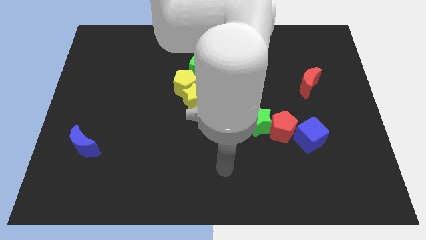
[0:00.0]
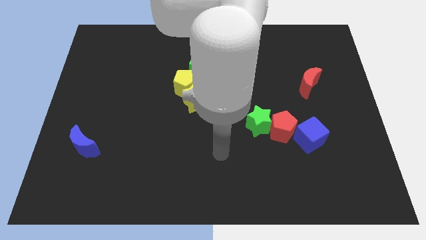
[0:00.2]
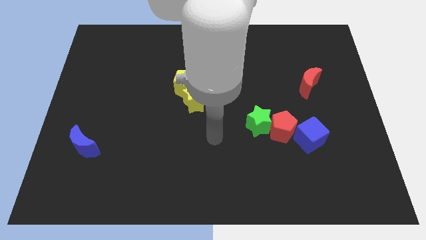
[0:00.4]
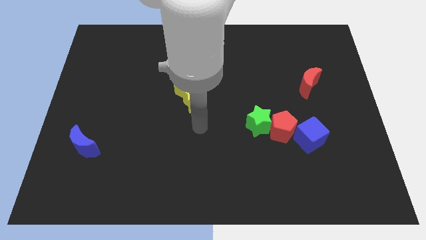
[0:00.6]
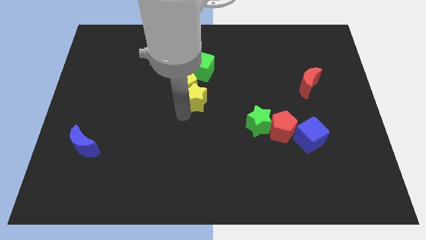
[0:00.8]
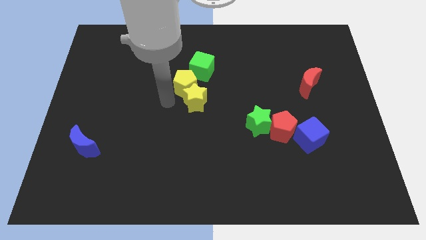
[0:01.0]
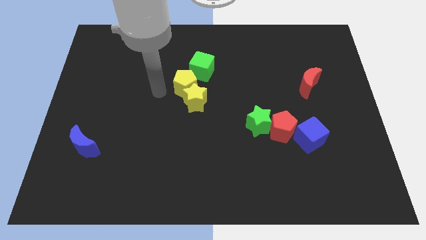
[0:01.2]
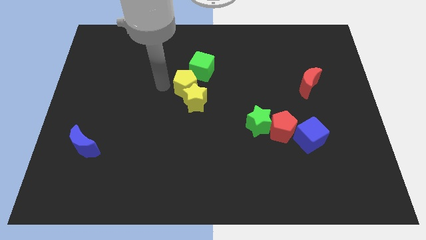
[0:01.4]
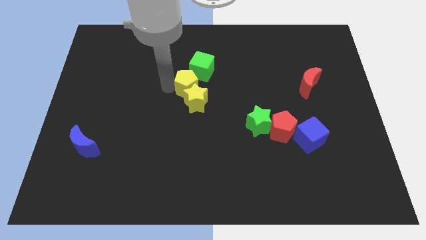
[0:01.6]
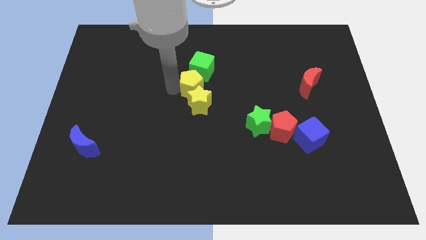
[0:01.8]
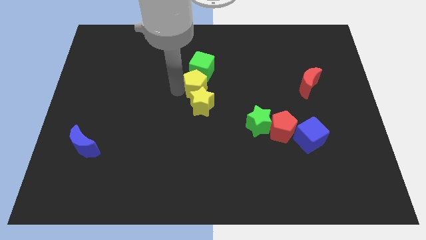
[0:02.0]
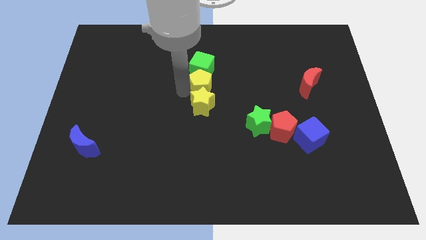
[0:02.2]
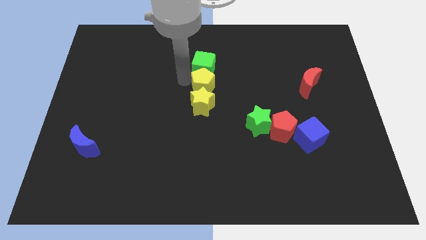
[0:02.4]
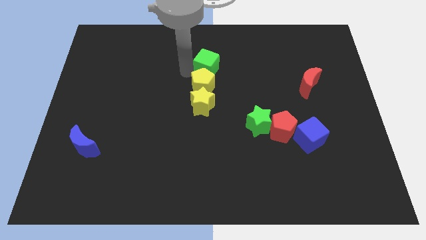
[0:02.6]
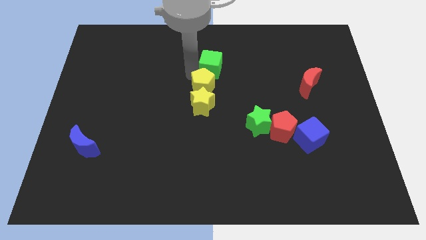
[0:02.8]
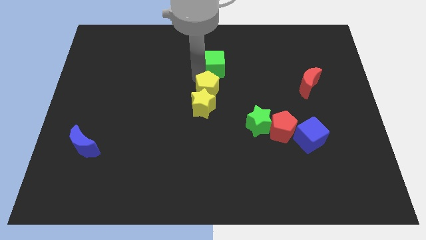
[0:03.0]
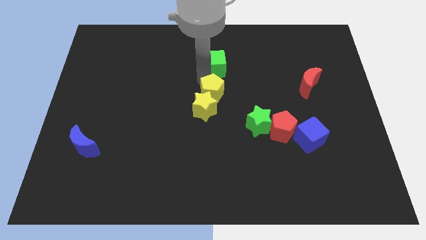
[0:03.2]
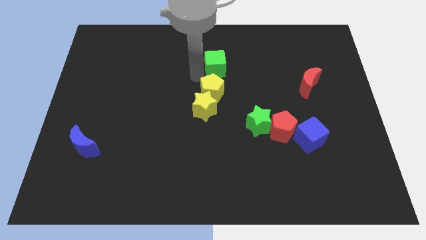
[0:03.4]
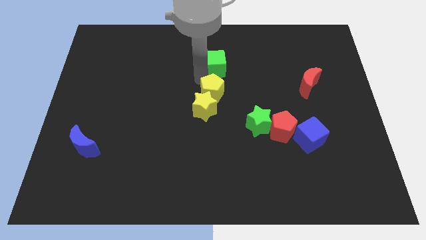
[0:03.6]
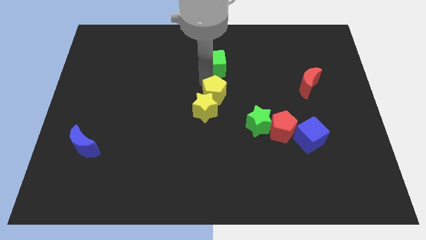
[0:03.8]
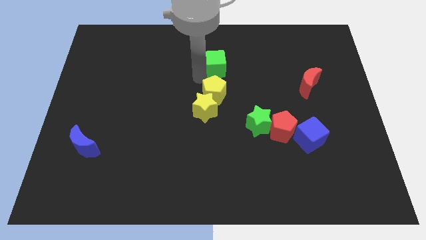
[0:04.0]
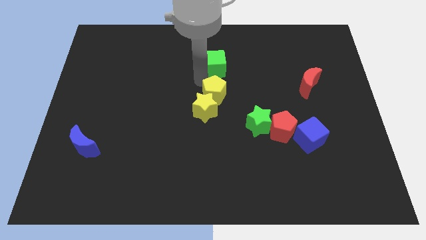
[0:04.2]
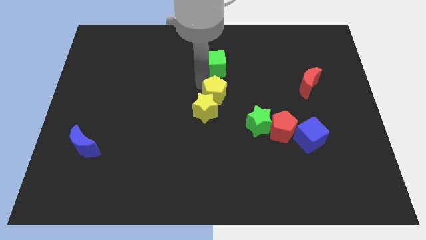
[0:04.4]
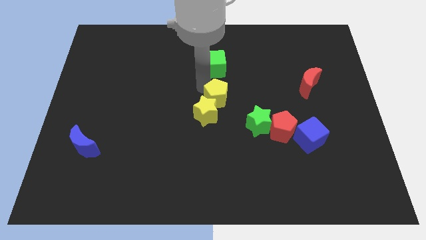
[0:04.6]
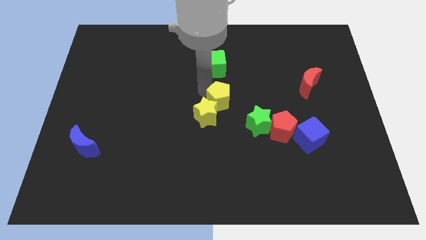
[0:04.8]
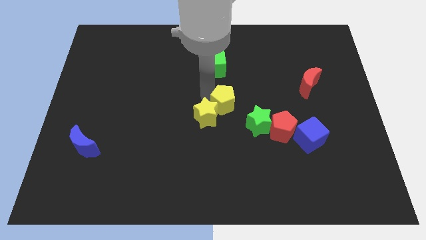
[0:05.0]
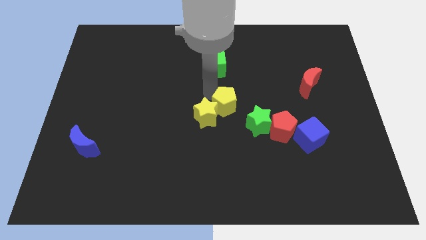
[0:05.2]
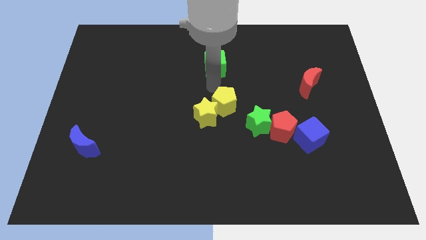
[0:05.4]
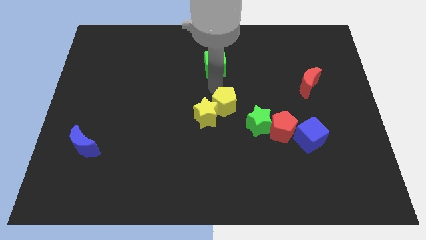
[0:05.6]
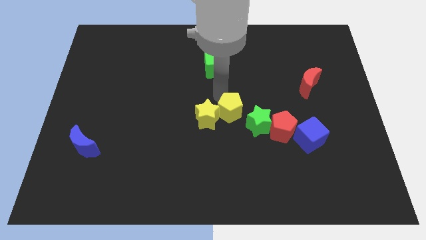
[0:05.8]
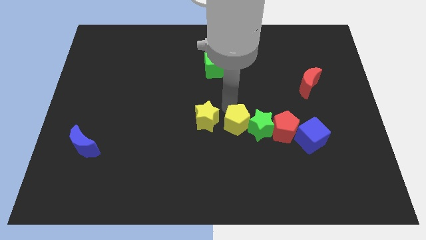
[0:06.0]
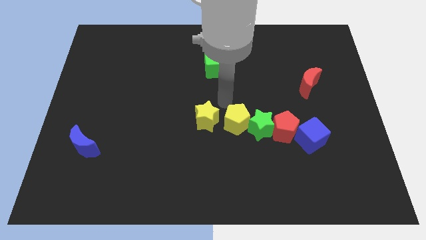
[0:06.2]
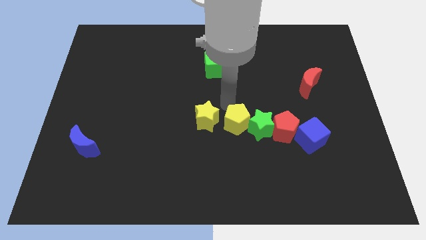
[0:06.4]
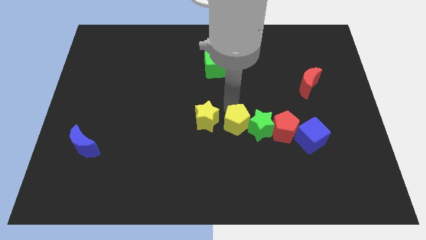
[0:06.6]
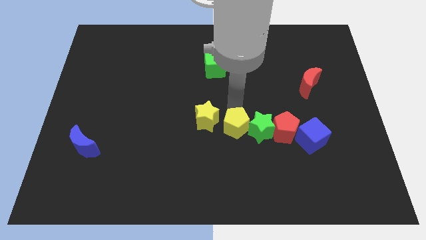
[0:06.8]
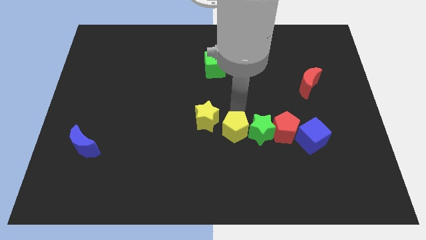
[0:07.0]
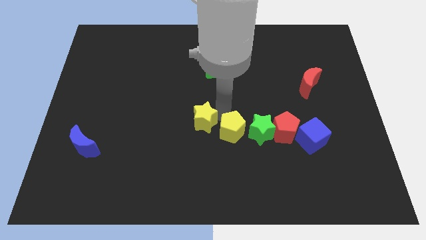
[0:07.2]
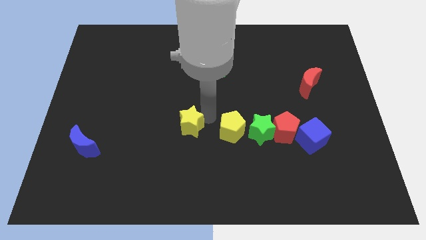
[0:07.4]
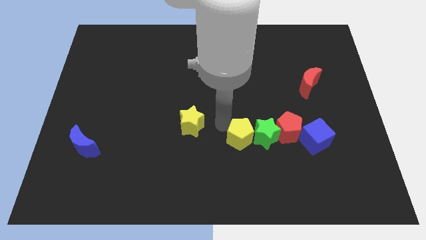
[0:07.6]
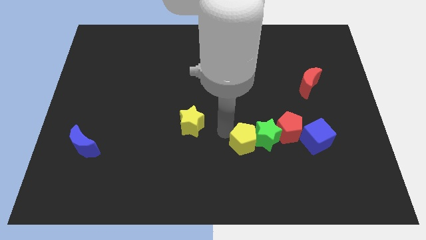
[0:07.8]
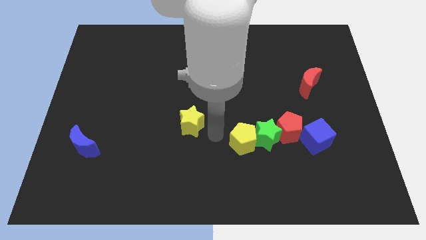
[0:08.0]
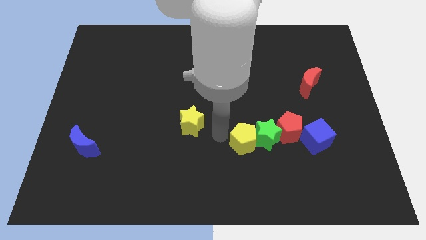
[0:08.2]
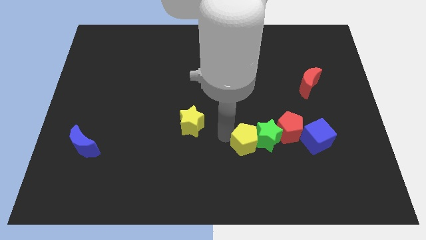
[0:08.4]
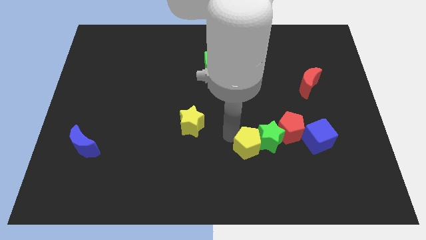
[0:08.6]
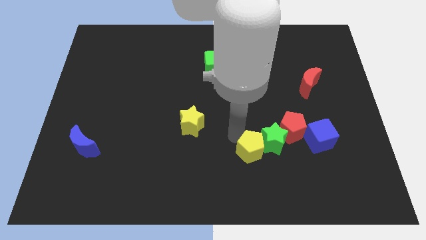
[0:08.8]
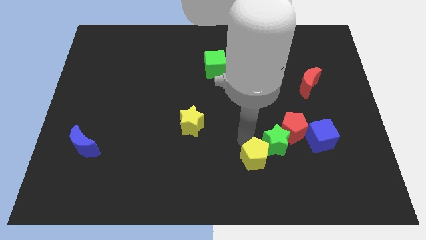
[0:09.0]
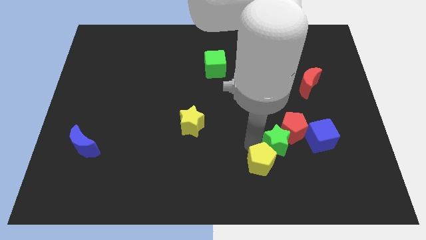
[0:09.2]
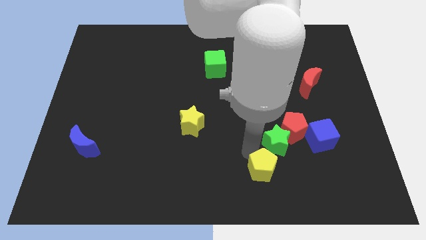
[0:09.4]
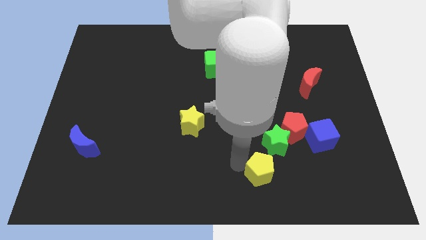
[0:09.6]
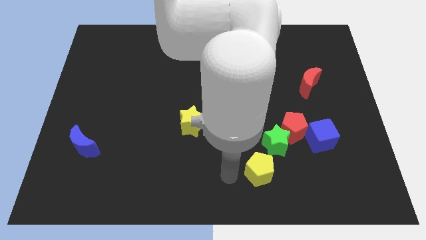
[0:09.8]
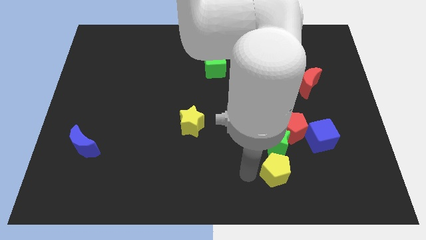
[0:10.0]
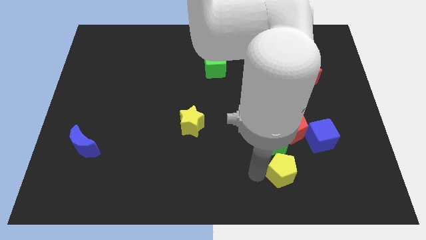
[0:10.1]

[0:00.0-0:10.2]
move the yellow pentagon diagonally down and to the right of the green star

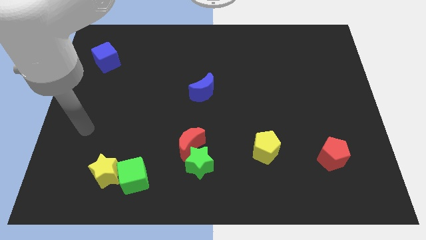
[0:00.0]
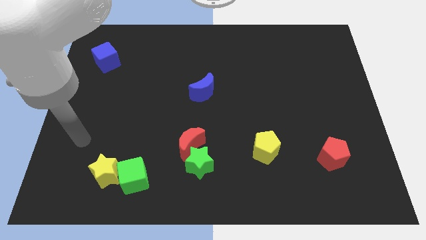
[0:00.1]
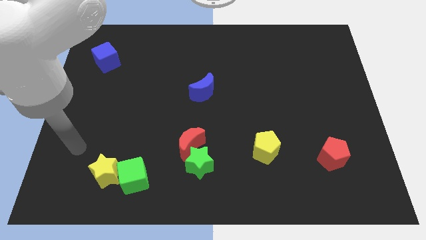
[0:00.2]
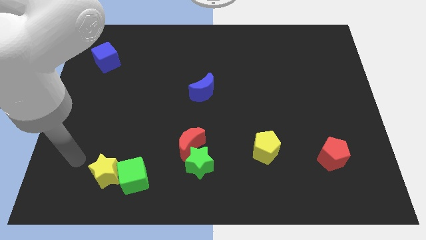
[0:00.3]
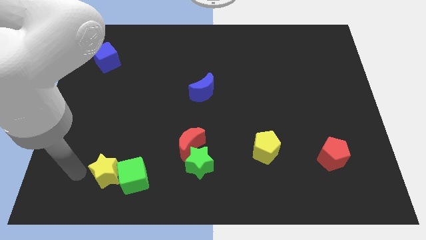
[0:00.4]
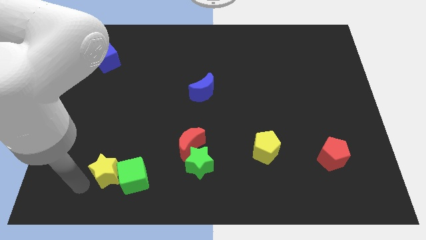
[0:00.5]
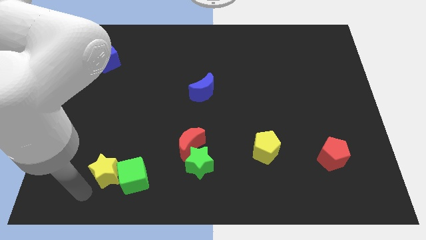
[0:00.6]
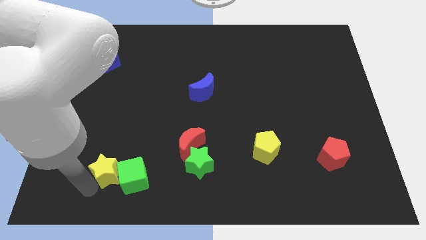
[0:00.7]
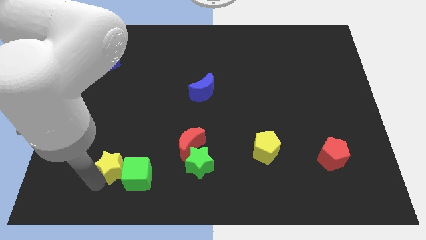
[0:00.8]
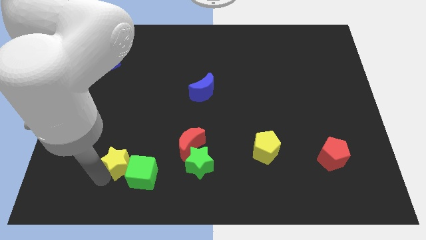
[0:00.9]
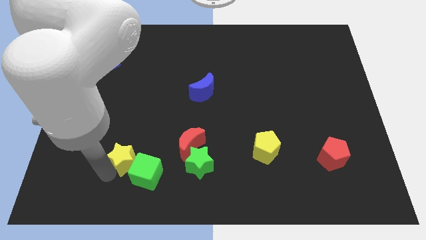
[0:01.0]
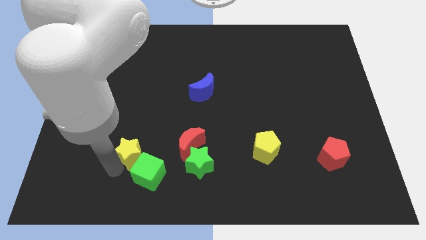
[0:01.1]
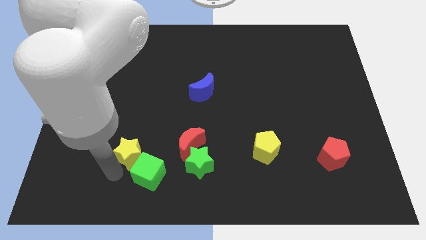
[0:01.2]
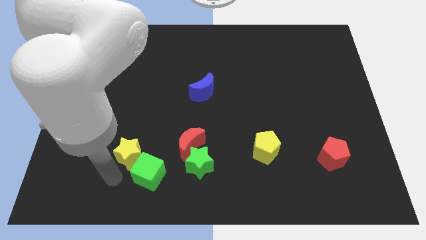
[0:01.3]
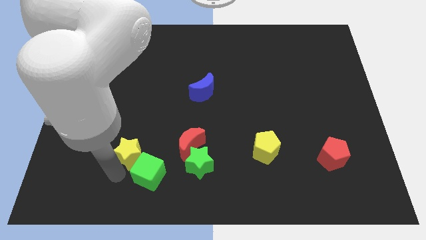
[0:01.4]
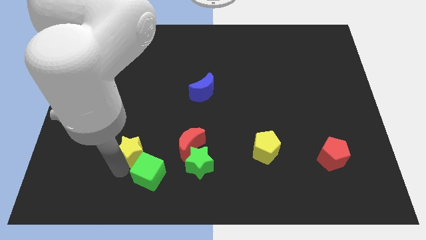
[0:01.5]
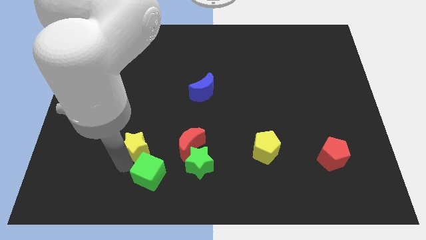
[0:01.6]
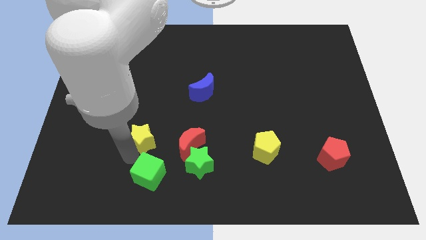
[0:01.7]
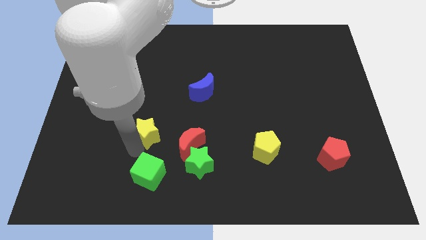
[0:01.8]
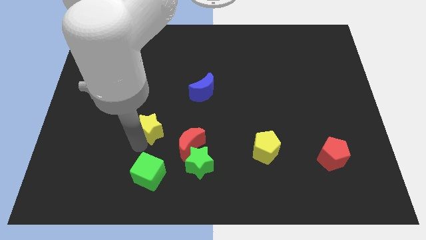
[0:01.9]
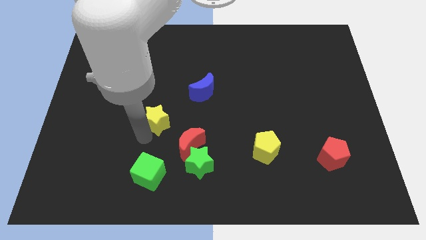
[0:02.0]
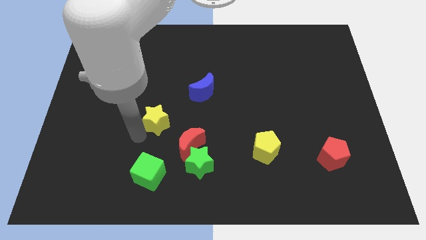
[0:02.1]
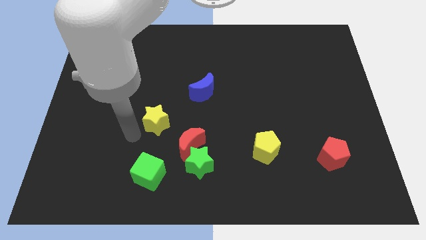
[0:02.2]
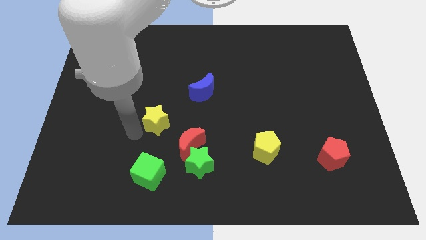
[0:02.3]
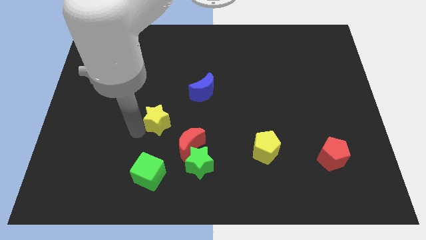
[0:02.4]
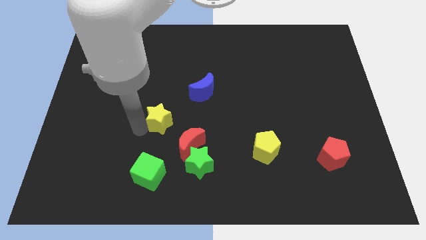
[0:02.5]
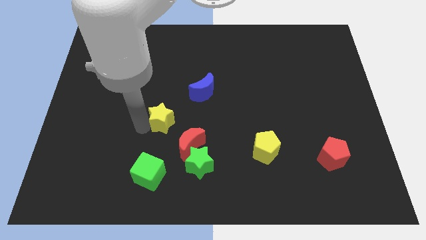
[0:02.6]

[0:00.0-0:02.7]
put the yellow star diagonally down and to the left of the blue moon

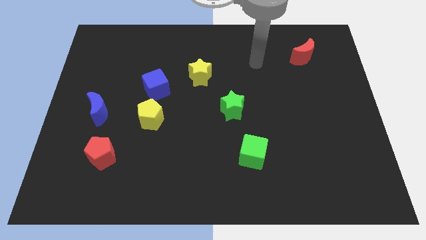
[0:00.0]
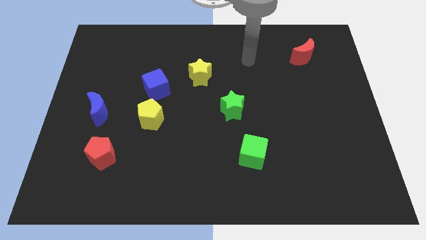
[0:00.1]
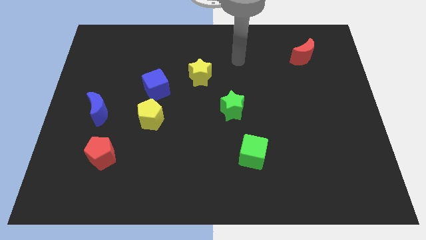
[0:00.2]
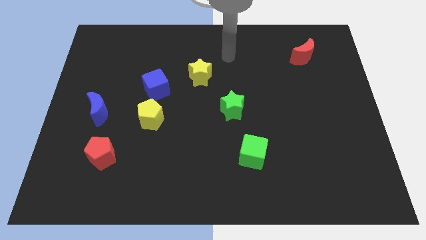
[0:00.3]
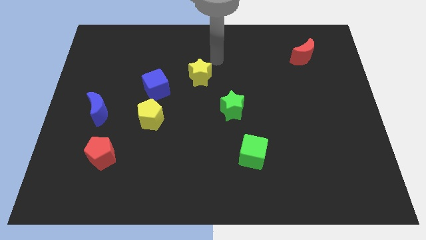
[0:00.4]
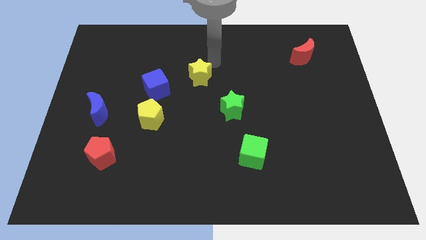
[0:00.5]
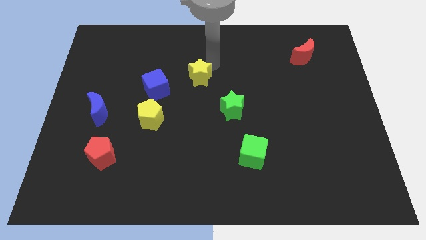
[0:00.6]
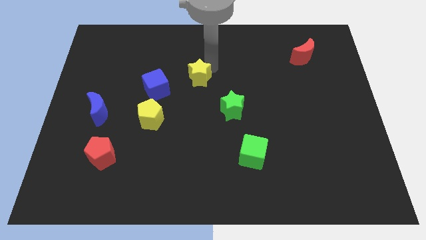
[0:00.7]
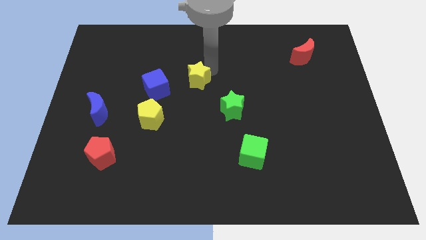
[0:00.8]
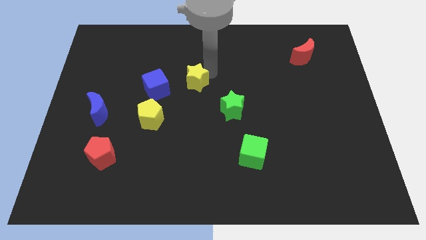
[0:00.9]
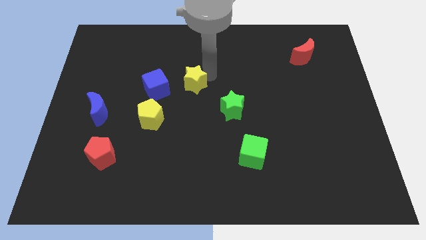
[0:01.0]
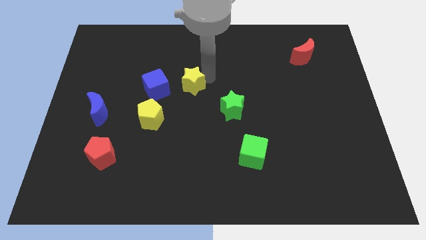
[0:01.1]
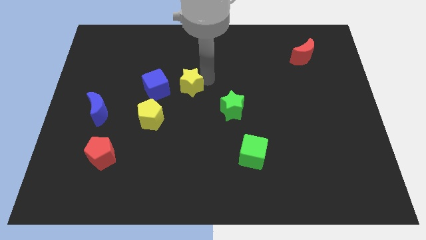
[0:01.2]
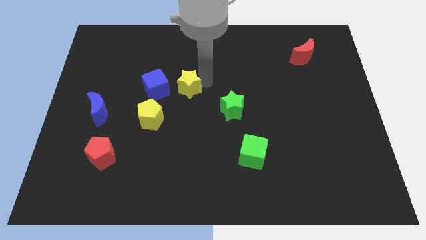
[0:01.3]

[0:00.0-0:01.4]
slide the yellow star diagonally up and to the right of the yellow pentagon
